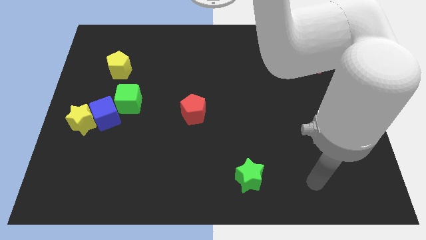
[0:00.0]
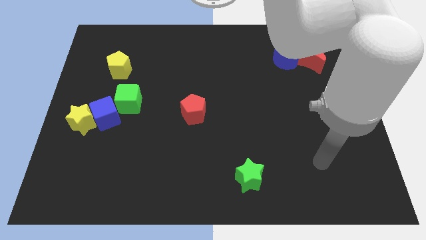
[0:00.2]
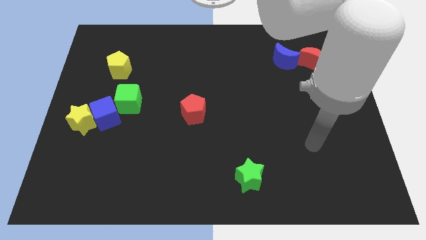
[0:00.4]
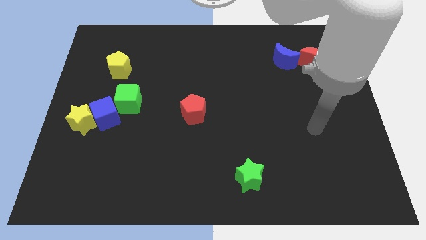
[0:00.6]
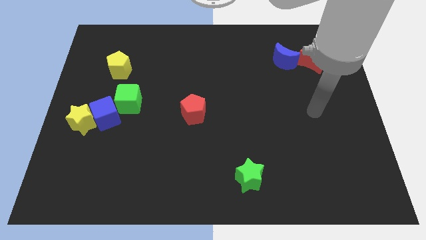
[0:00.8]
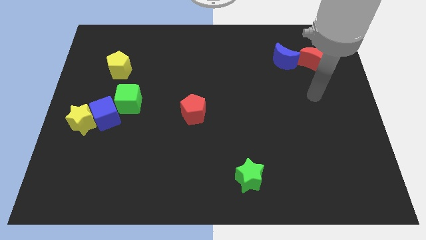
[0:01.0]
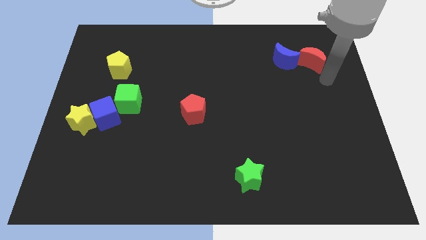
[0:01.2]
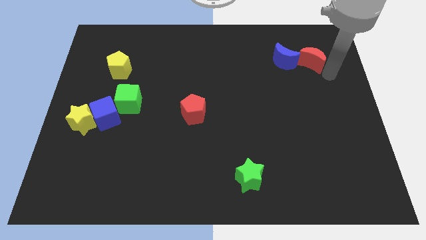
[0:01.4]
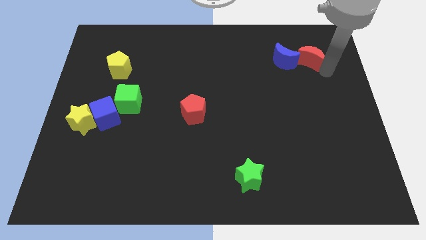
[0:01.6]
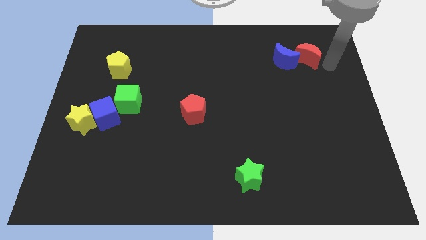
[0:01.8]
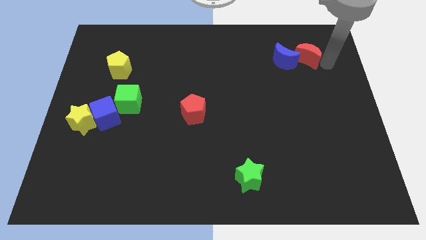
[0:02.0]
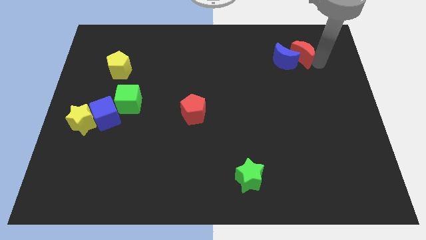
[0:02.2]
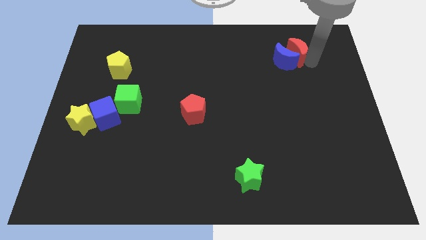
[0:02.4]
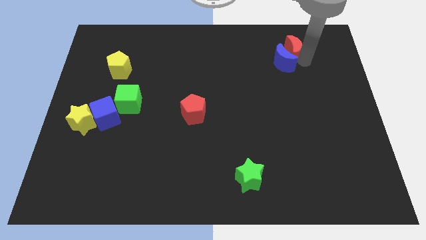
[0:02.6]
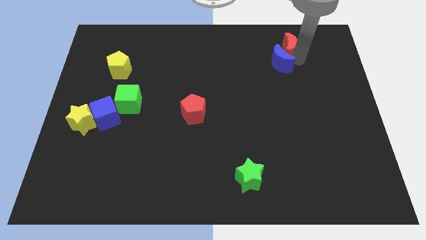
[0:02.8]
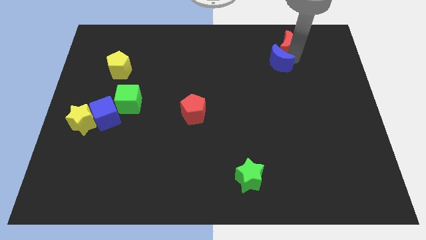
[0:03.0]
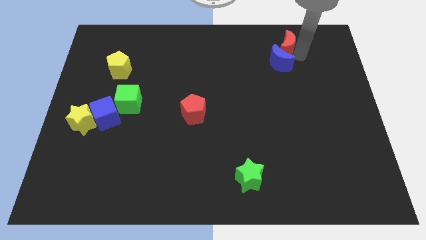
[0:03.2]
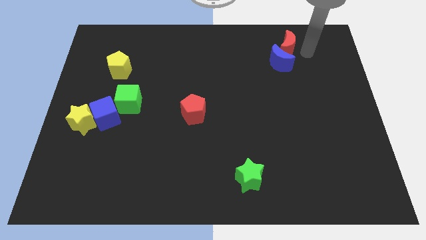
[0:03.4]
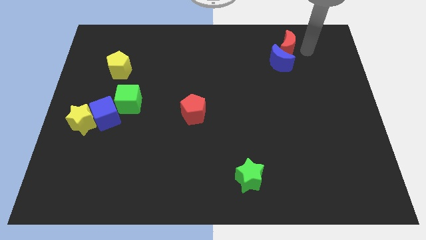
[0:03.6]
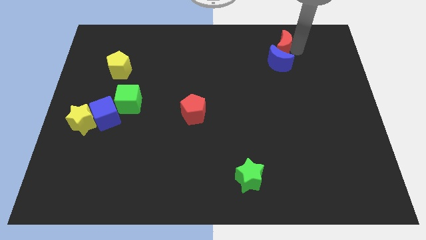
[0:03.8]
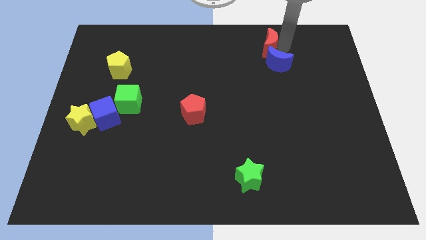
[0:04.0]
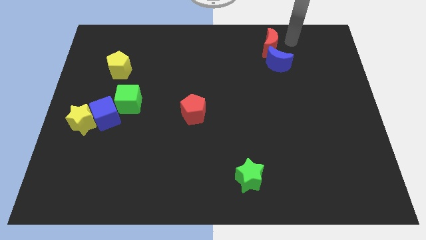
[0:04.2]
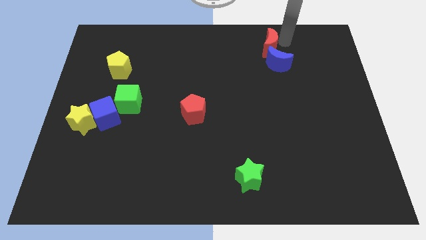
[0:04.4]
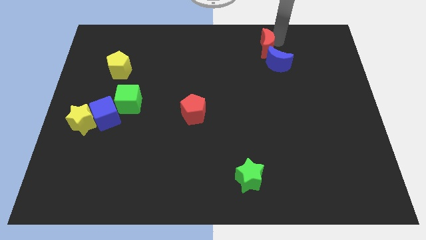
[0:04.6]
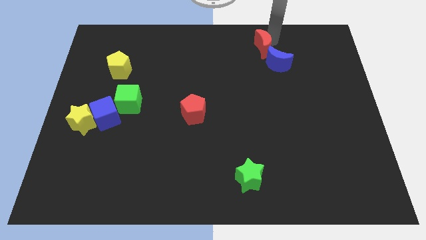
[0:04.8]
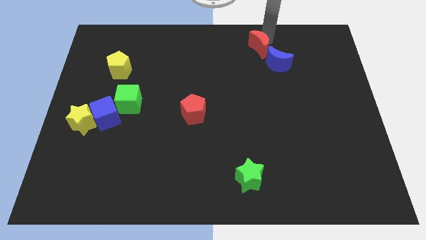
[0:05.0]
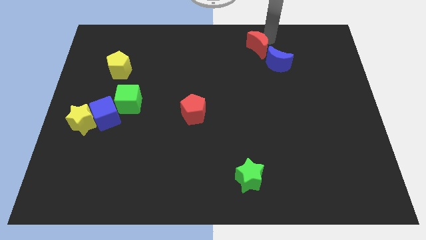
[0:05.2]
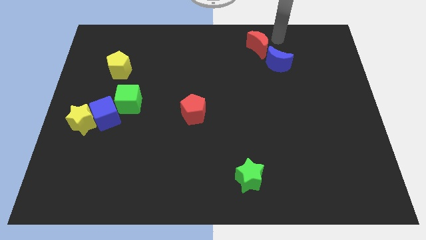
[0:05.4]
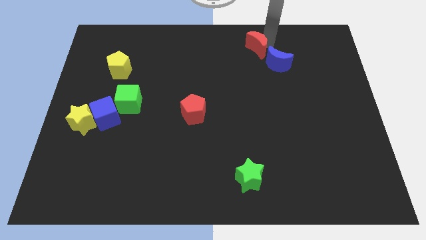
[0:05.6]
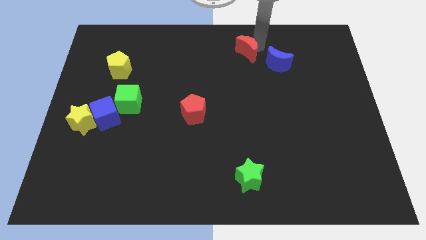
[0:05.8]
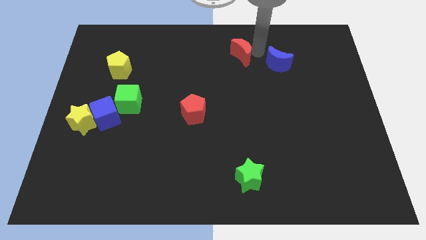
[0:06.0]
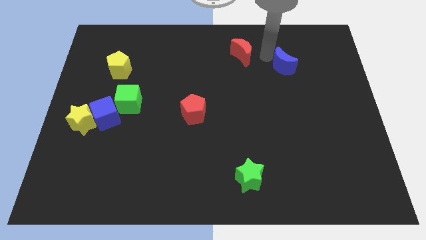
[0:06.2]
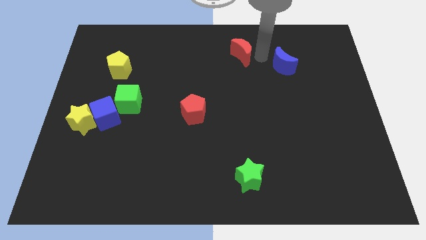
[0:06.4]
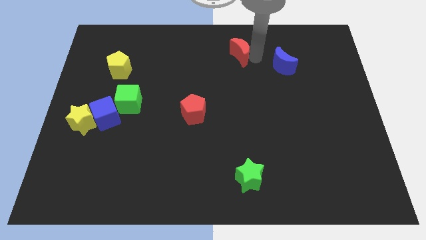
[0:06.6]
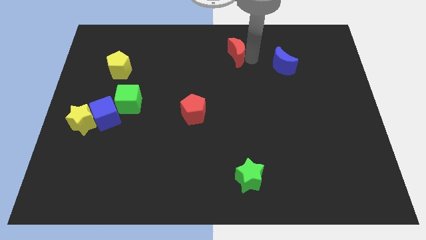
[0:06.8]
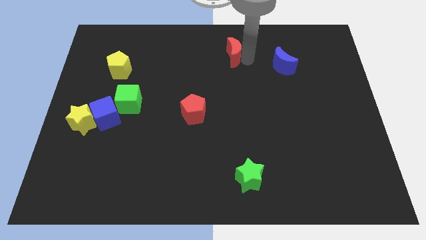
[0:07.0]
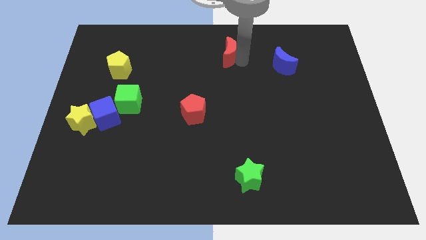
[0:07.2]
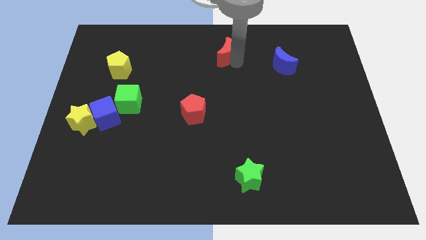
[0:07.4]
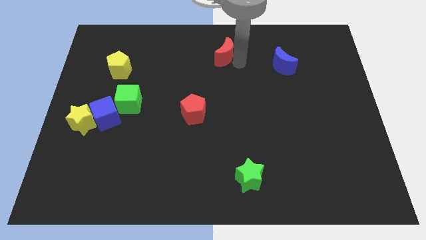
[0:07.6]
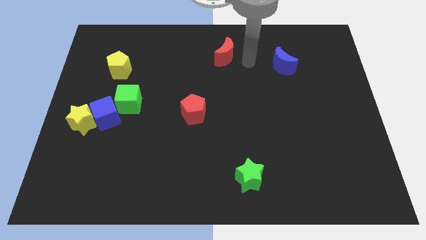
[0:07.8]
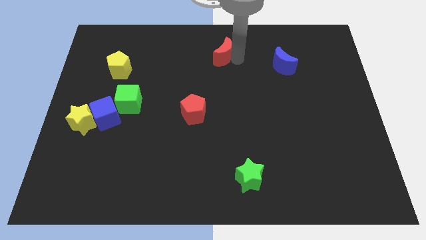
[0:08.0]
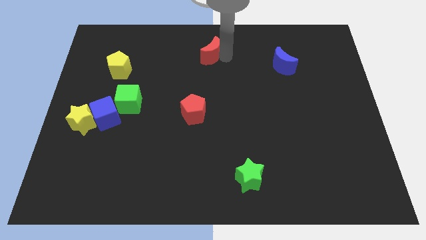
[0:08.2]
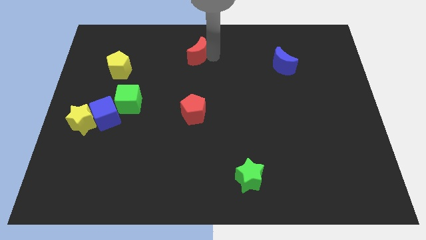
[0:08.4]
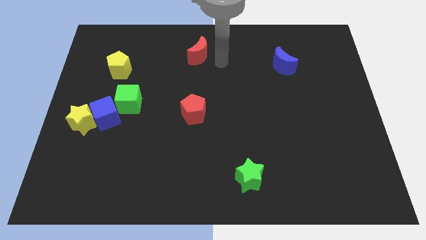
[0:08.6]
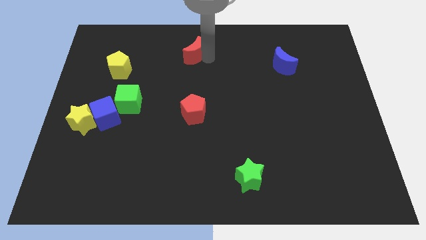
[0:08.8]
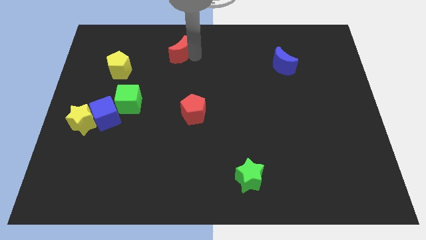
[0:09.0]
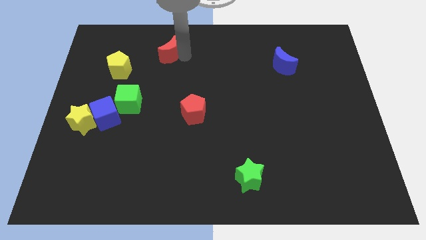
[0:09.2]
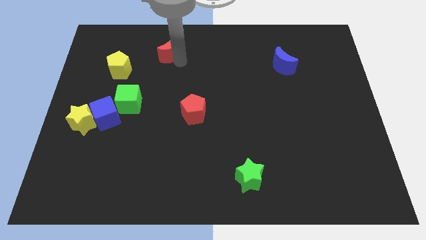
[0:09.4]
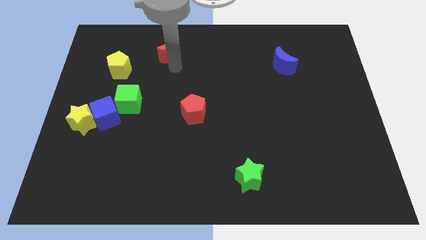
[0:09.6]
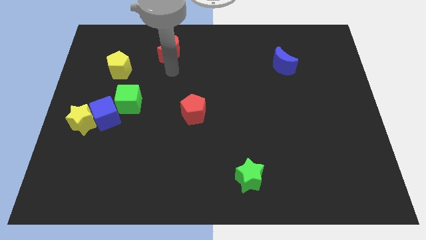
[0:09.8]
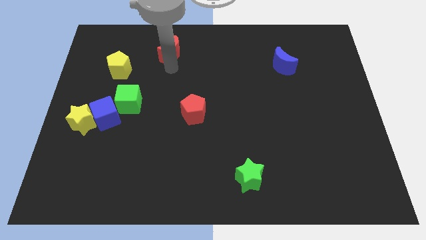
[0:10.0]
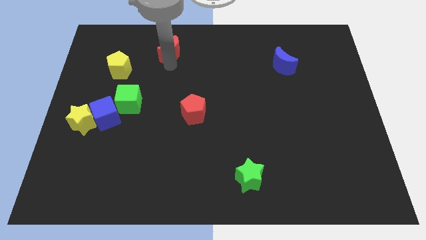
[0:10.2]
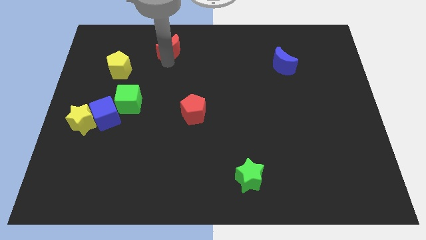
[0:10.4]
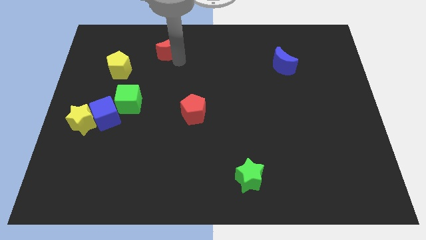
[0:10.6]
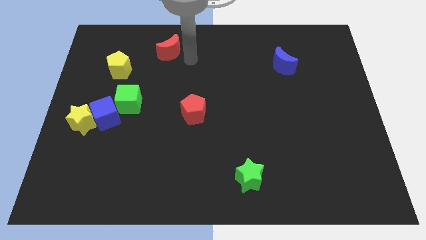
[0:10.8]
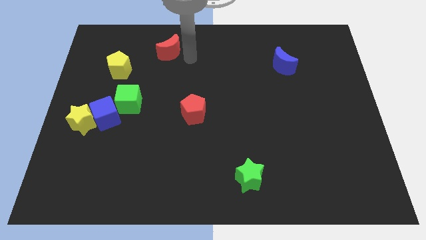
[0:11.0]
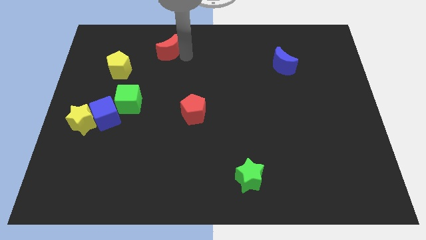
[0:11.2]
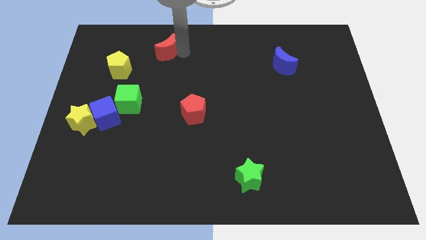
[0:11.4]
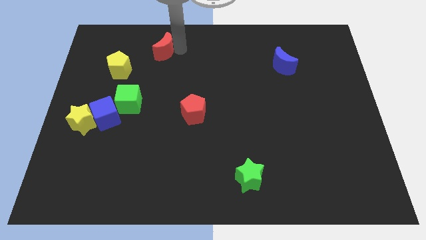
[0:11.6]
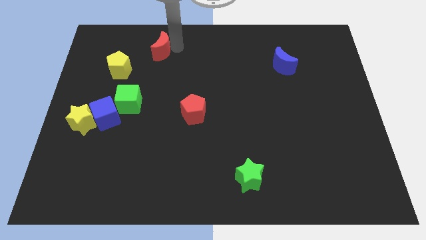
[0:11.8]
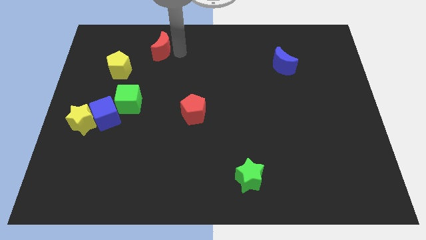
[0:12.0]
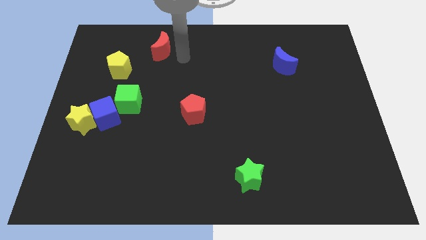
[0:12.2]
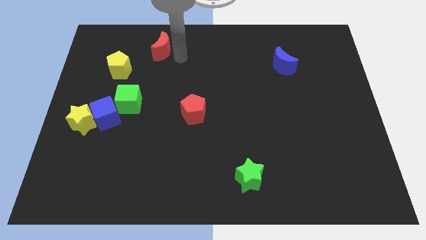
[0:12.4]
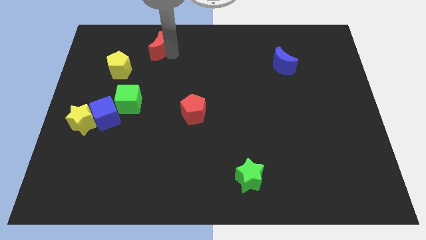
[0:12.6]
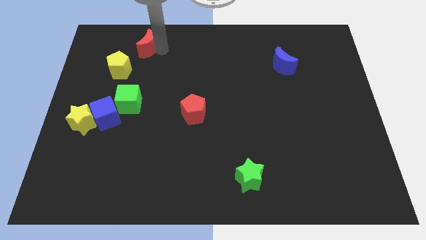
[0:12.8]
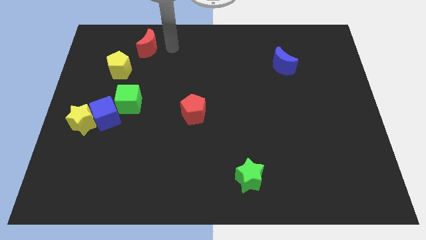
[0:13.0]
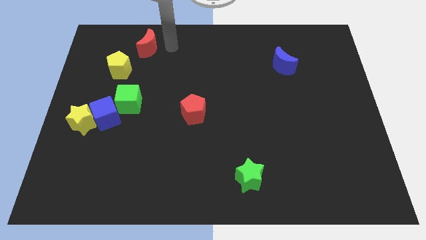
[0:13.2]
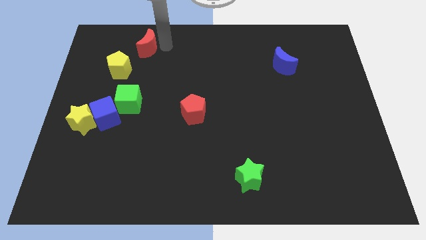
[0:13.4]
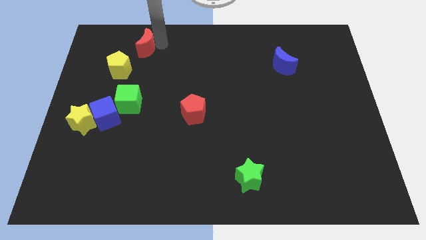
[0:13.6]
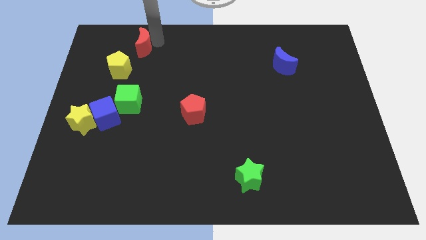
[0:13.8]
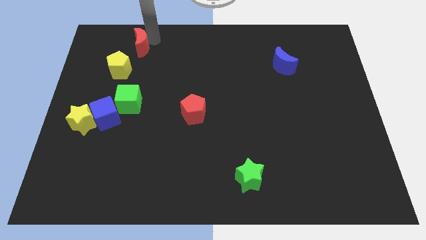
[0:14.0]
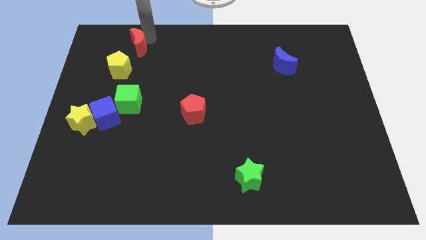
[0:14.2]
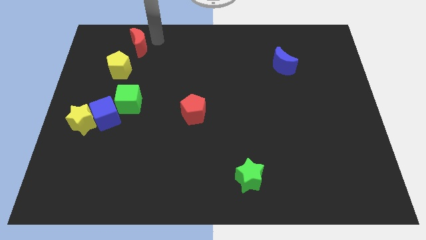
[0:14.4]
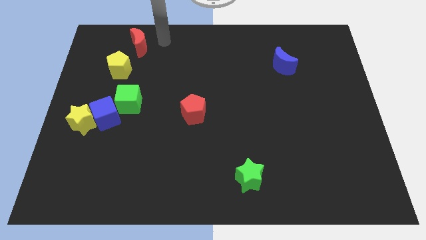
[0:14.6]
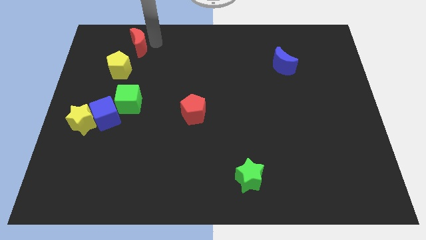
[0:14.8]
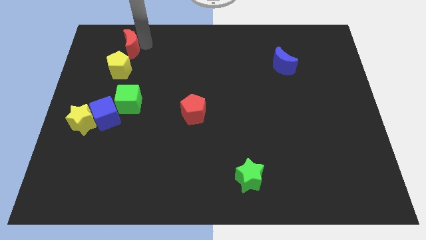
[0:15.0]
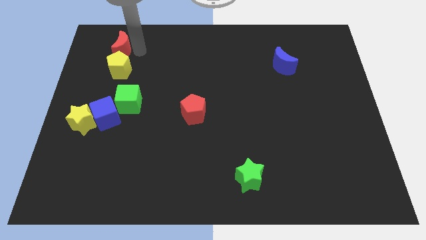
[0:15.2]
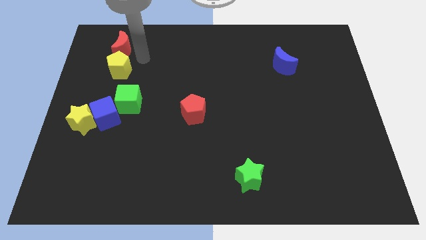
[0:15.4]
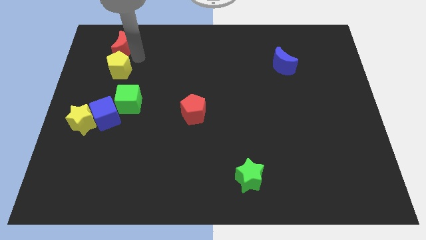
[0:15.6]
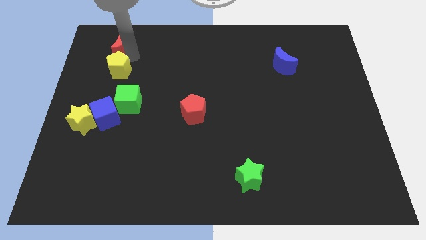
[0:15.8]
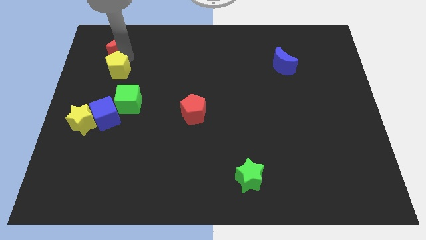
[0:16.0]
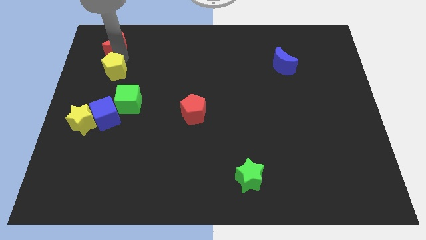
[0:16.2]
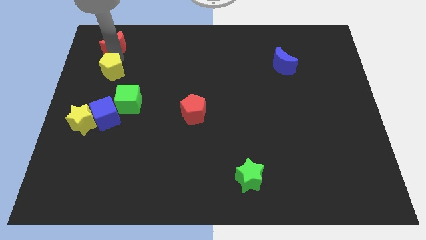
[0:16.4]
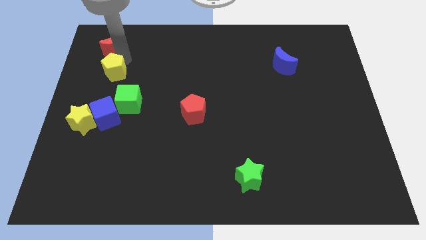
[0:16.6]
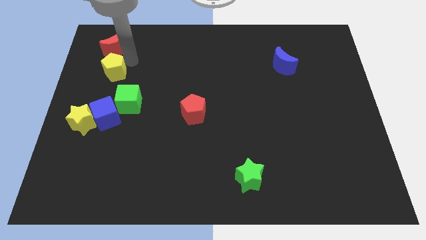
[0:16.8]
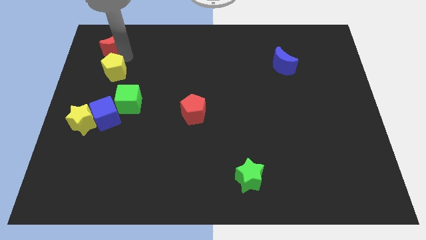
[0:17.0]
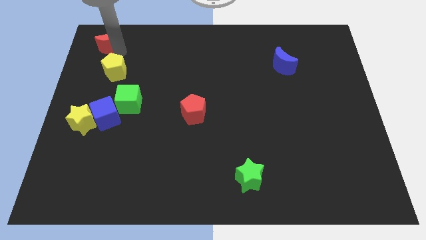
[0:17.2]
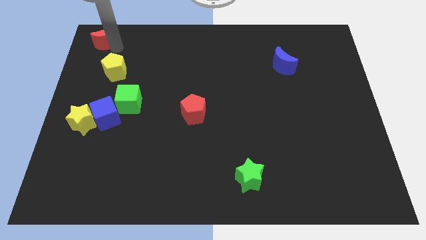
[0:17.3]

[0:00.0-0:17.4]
push the red moon to the top left corner
